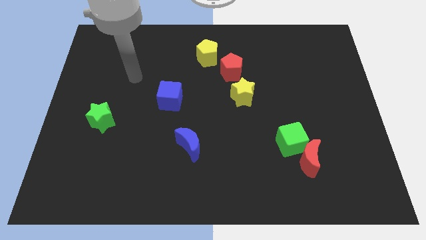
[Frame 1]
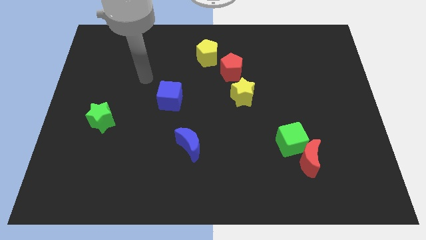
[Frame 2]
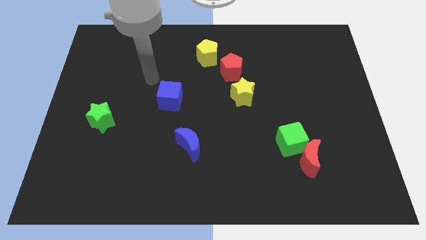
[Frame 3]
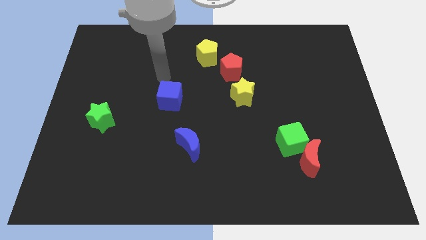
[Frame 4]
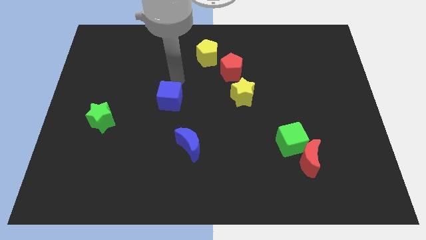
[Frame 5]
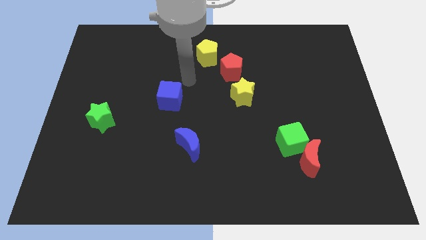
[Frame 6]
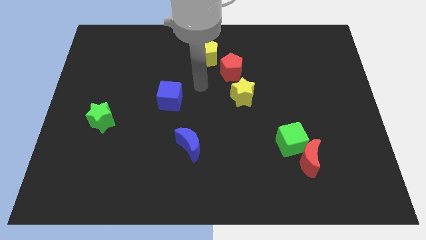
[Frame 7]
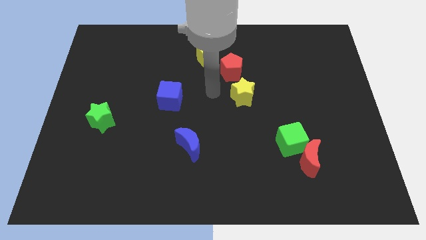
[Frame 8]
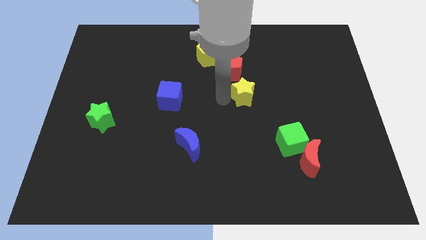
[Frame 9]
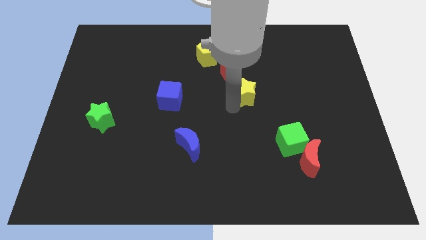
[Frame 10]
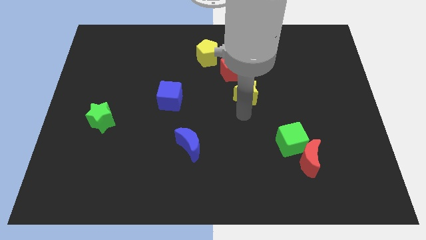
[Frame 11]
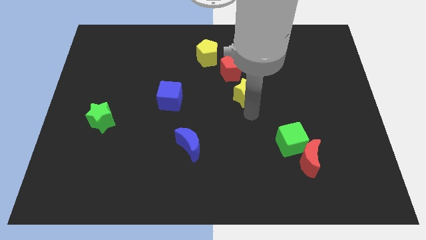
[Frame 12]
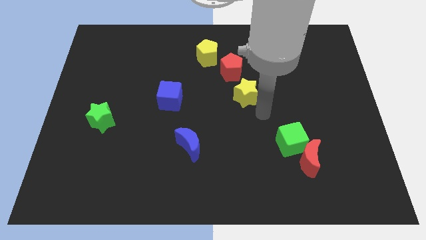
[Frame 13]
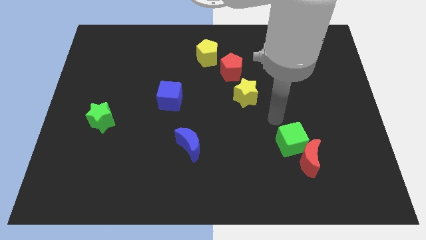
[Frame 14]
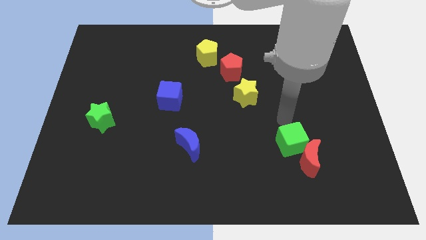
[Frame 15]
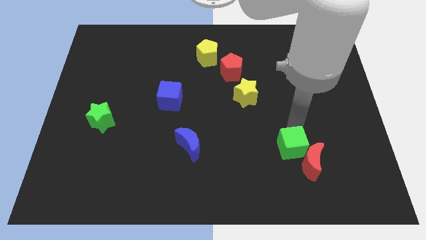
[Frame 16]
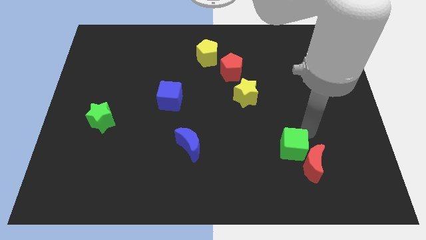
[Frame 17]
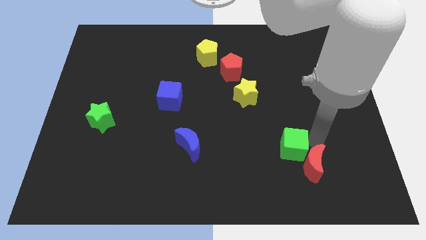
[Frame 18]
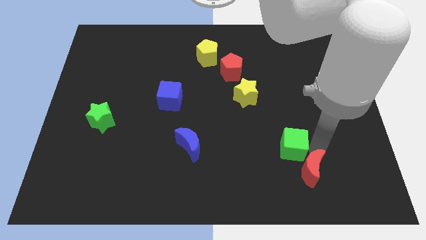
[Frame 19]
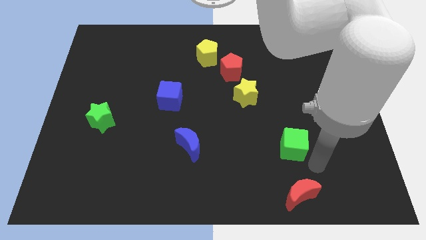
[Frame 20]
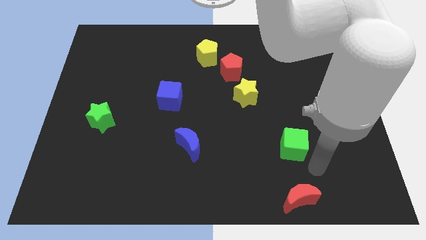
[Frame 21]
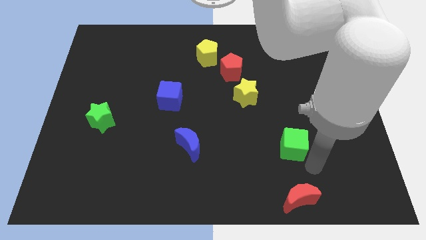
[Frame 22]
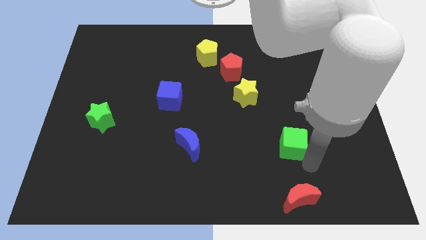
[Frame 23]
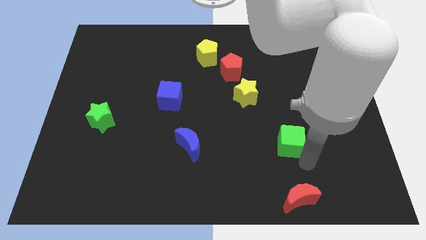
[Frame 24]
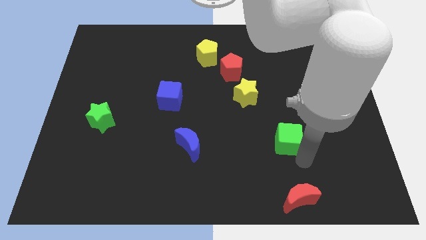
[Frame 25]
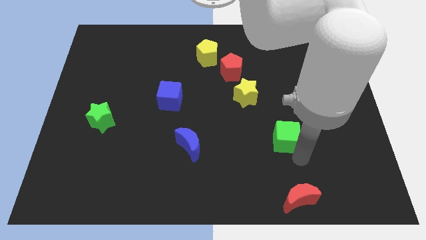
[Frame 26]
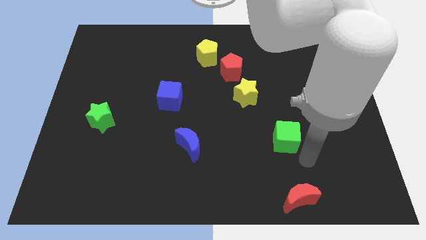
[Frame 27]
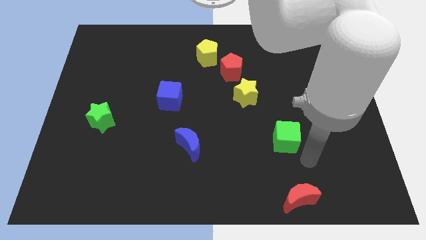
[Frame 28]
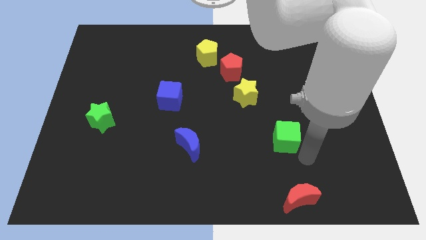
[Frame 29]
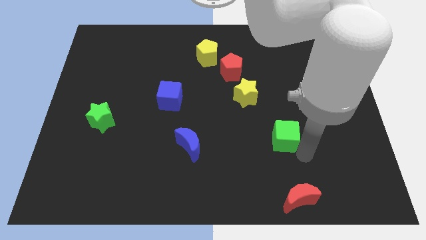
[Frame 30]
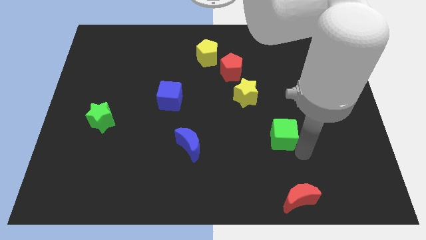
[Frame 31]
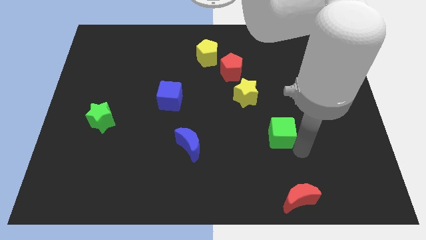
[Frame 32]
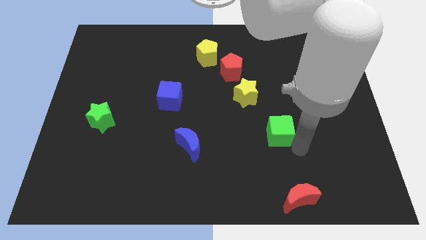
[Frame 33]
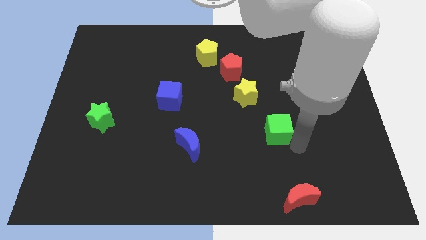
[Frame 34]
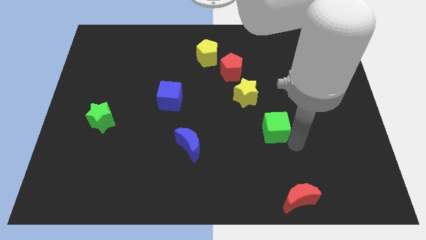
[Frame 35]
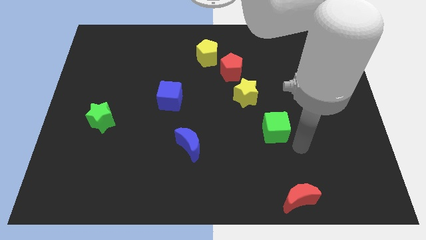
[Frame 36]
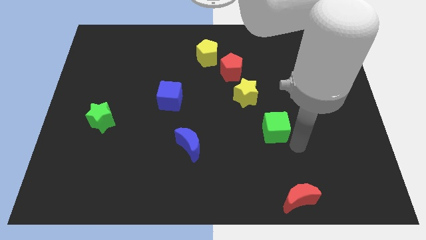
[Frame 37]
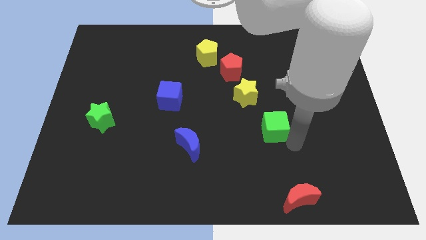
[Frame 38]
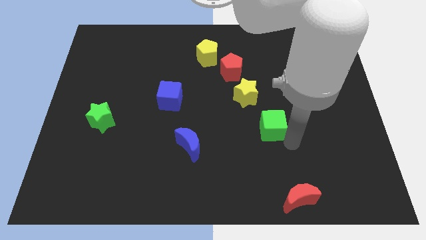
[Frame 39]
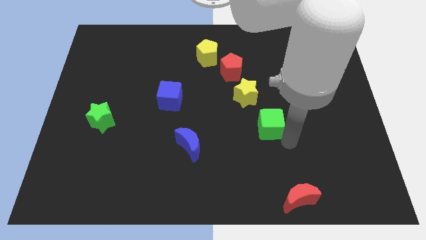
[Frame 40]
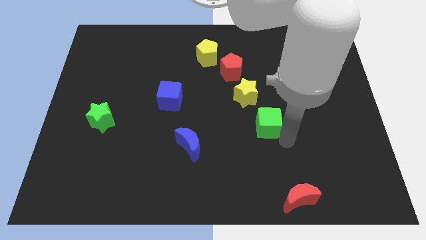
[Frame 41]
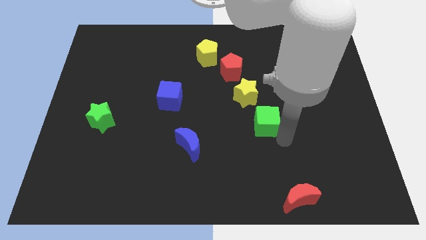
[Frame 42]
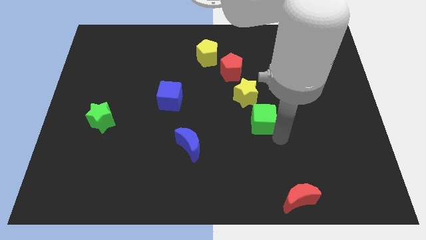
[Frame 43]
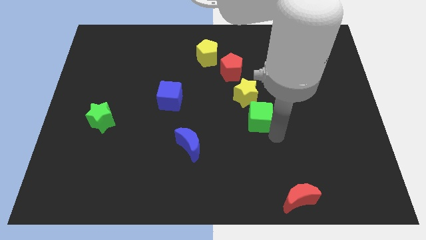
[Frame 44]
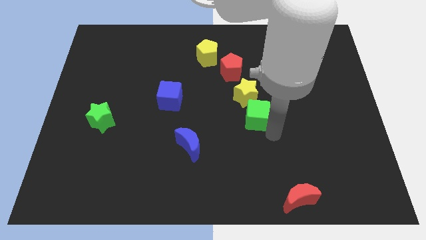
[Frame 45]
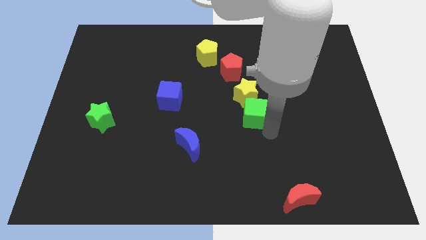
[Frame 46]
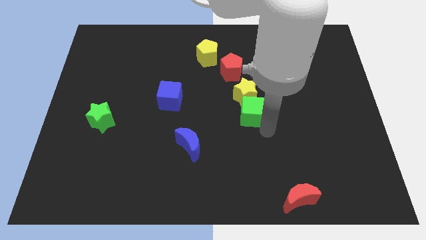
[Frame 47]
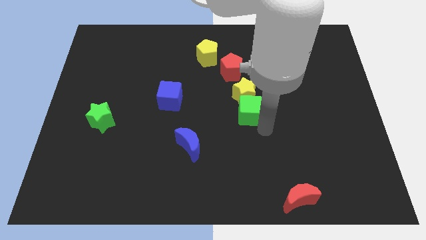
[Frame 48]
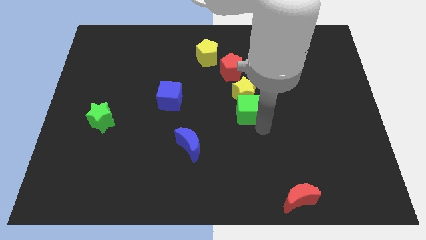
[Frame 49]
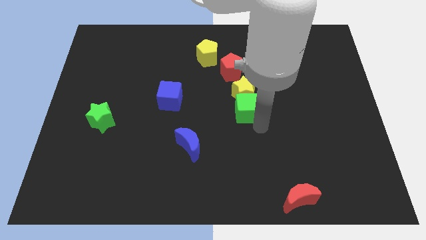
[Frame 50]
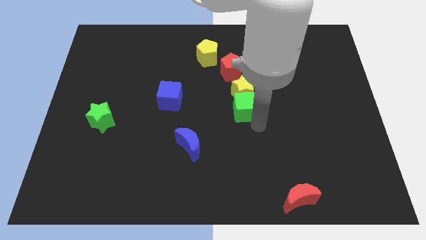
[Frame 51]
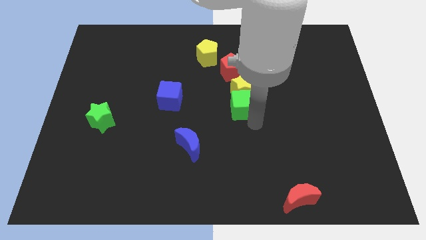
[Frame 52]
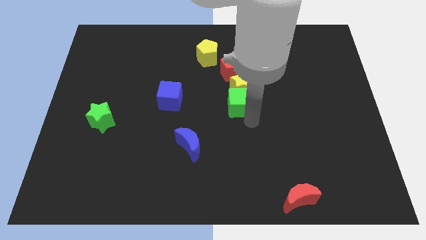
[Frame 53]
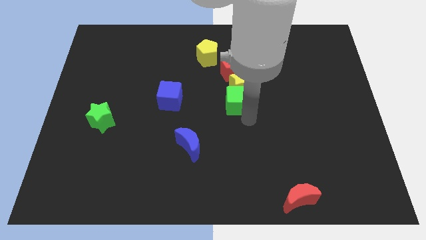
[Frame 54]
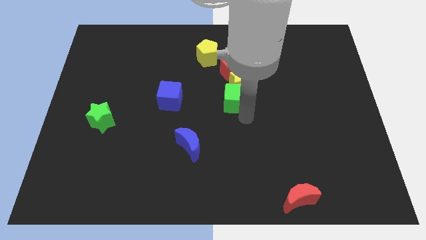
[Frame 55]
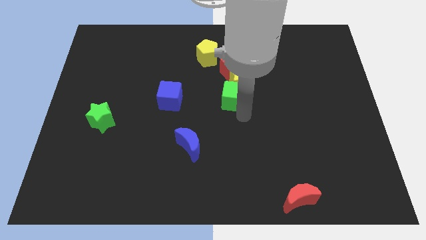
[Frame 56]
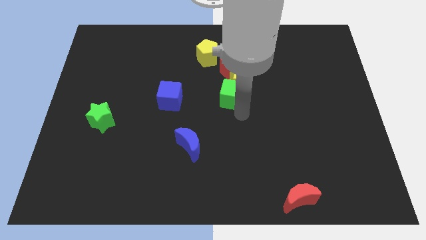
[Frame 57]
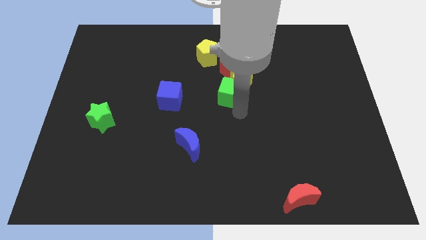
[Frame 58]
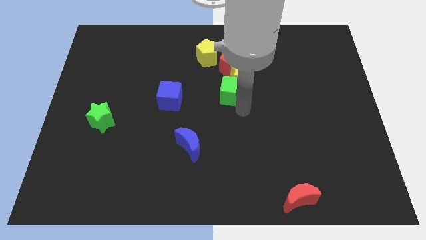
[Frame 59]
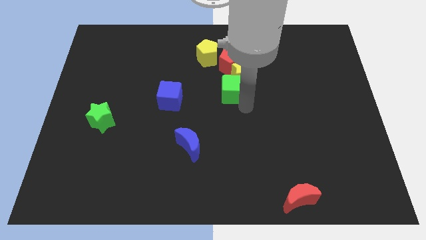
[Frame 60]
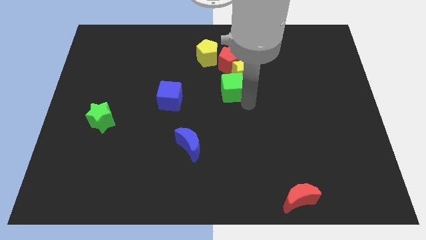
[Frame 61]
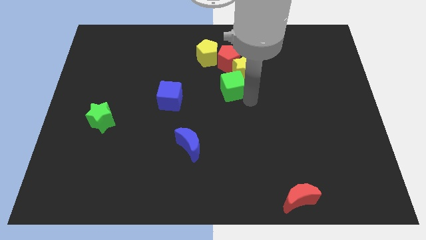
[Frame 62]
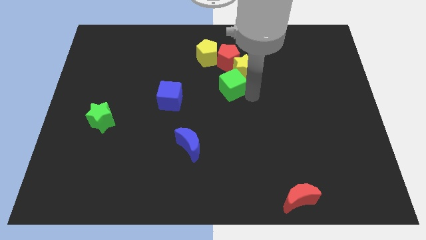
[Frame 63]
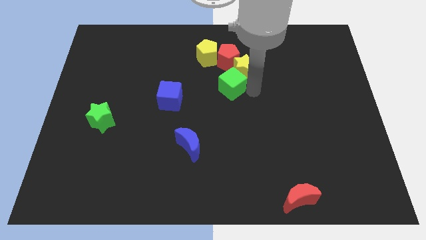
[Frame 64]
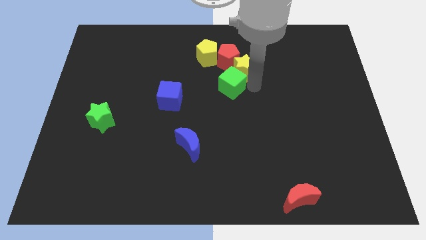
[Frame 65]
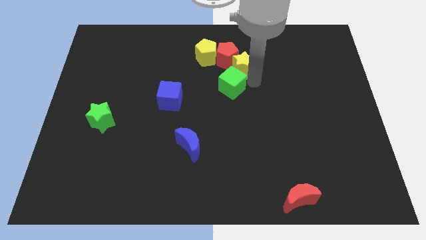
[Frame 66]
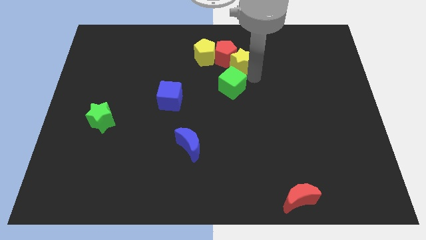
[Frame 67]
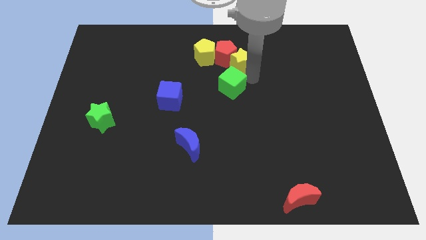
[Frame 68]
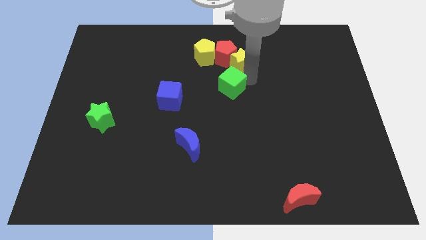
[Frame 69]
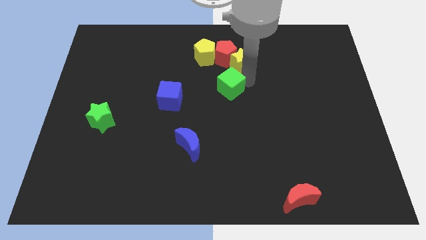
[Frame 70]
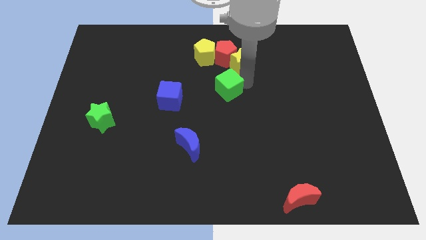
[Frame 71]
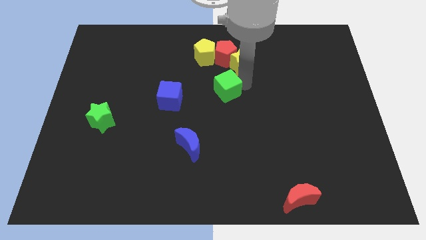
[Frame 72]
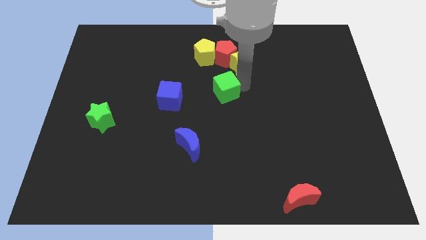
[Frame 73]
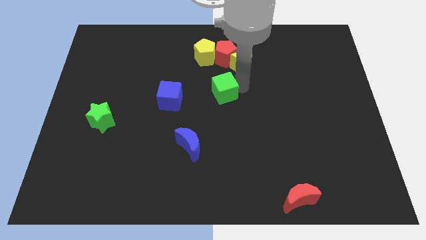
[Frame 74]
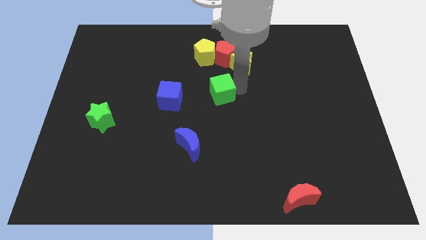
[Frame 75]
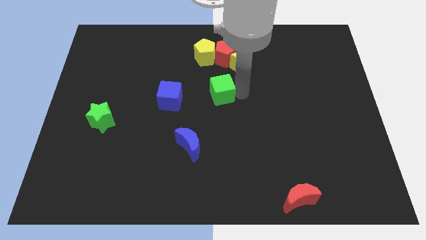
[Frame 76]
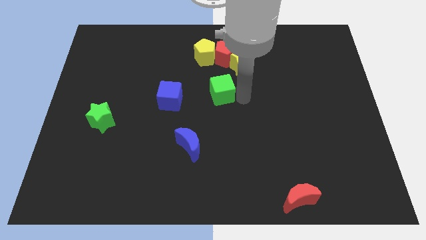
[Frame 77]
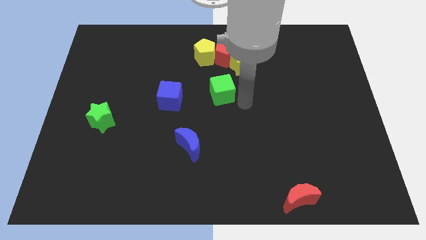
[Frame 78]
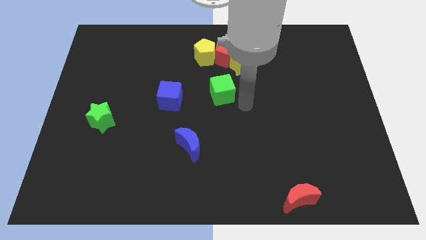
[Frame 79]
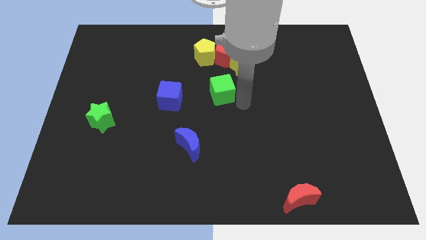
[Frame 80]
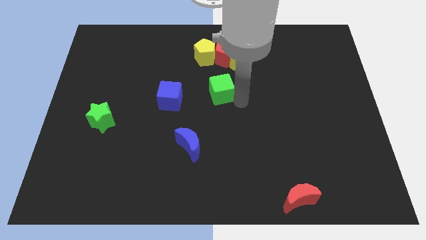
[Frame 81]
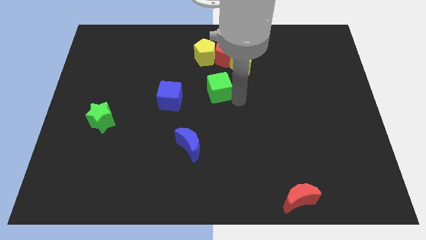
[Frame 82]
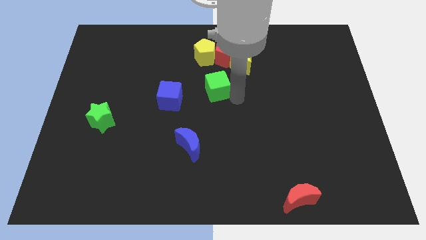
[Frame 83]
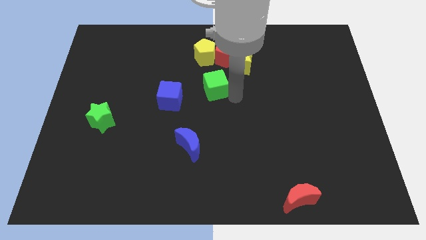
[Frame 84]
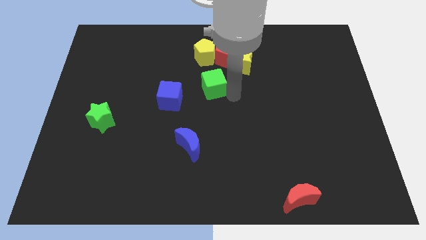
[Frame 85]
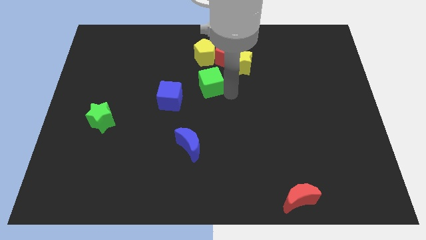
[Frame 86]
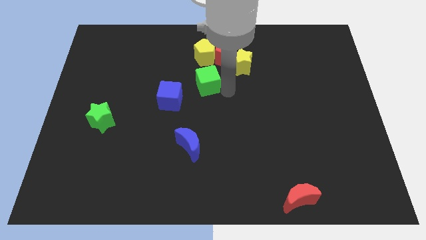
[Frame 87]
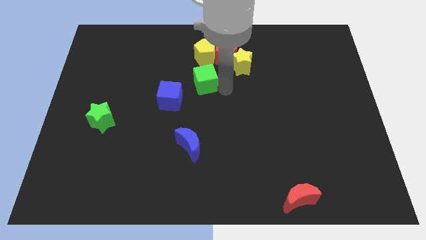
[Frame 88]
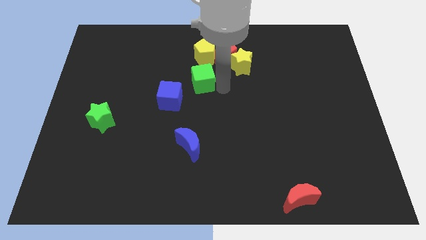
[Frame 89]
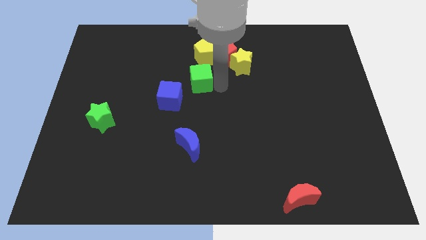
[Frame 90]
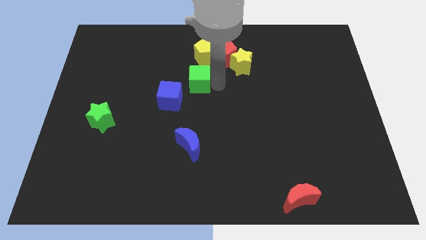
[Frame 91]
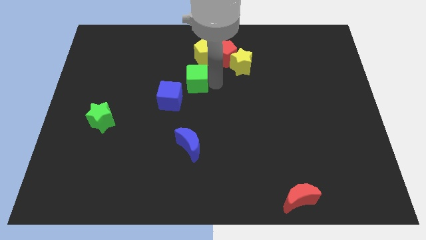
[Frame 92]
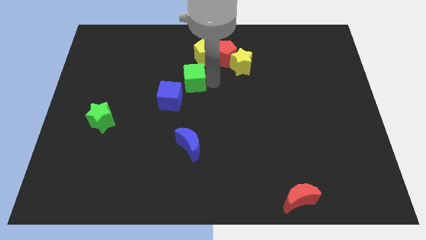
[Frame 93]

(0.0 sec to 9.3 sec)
slide the green cube diagonally down and to the left of the yellow pentagon
